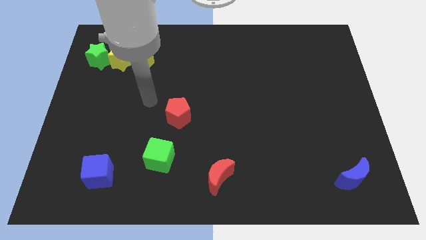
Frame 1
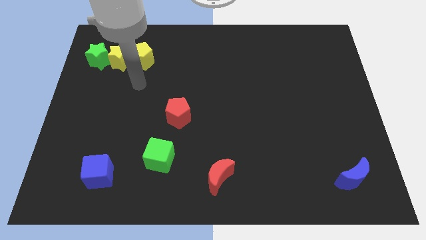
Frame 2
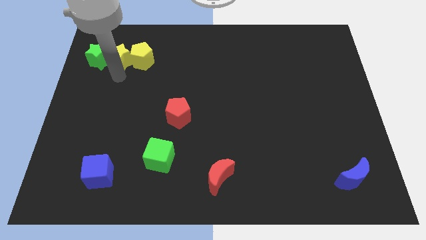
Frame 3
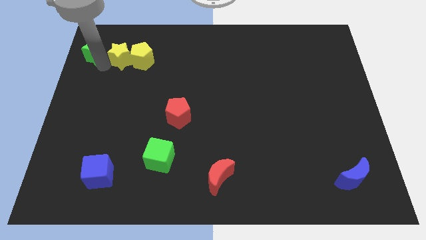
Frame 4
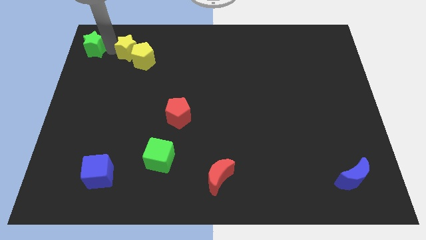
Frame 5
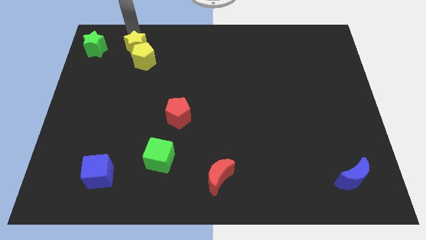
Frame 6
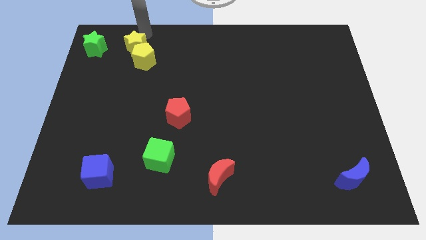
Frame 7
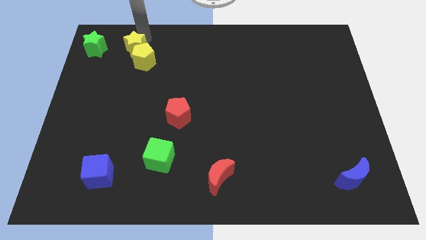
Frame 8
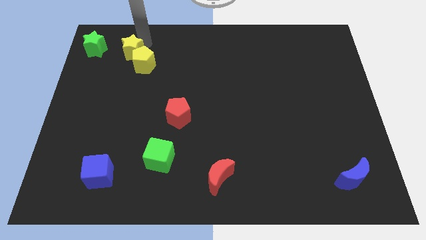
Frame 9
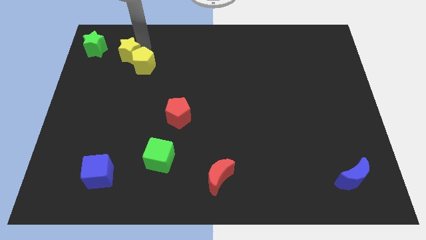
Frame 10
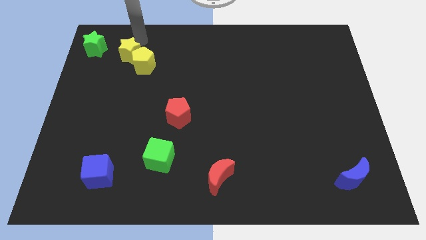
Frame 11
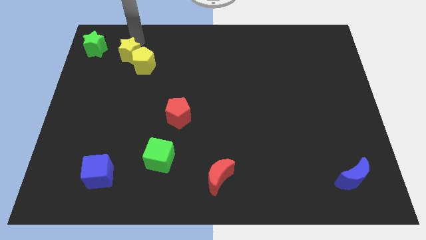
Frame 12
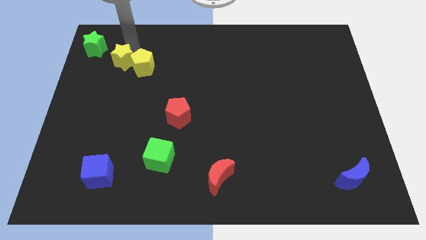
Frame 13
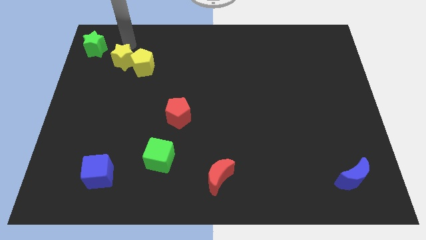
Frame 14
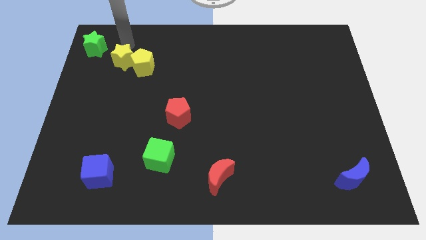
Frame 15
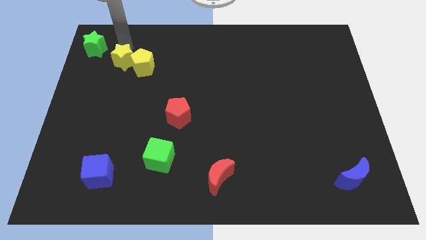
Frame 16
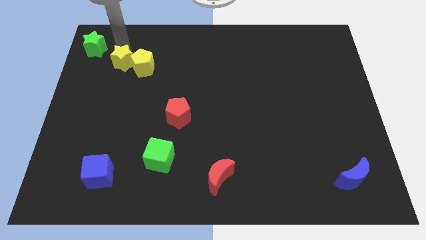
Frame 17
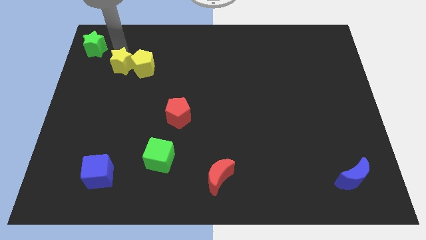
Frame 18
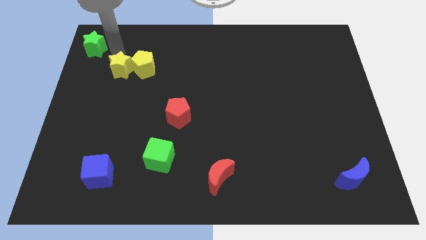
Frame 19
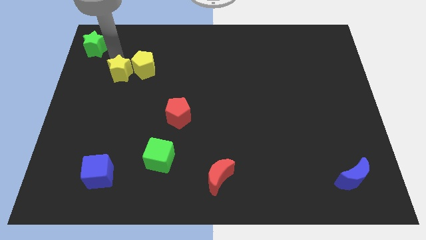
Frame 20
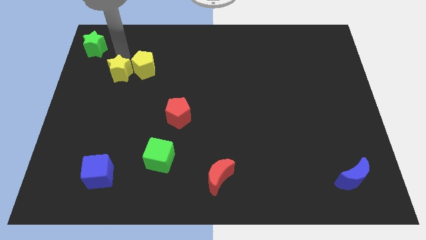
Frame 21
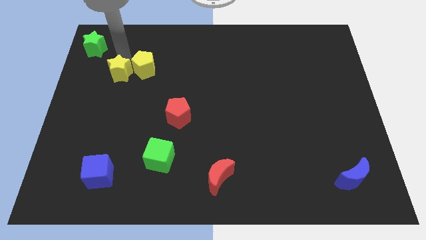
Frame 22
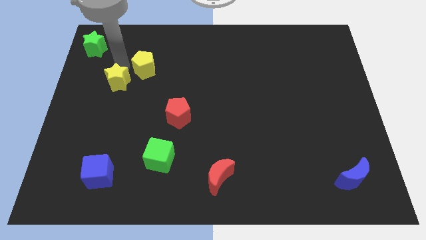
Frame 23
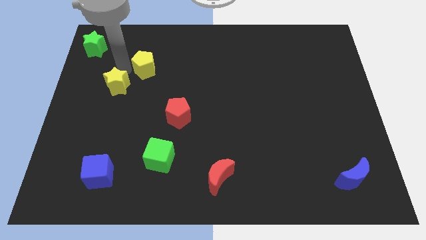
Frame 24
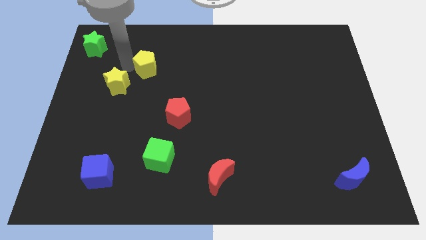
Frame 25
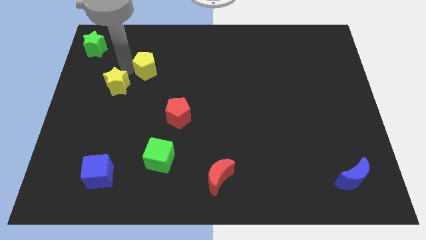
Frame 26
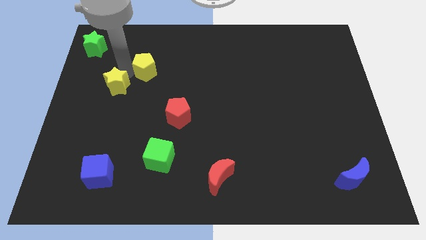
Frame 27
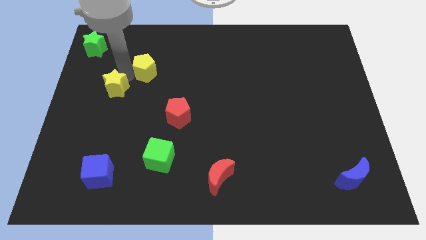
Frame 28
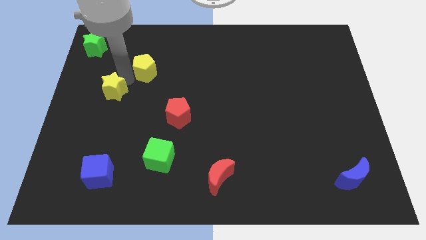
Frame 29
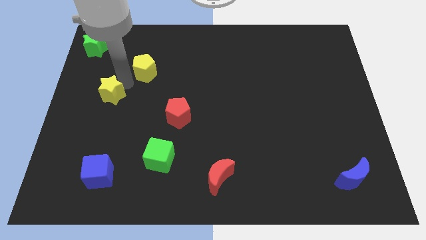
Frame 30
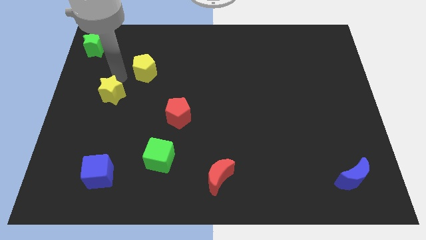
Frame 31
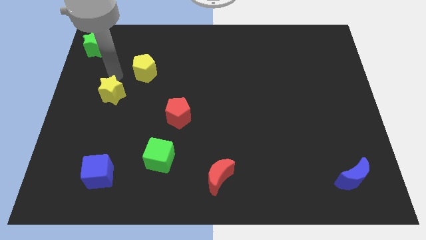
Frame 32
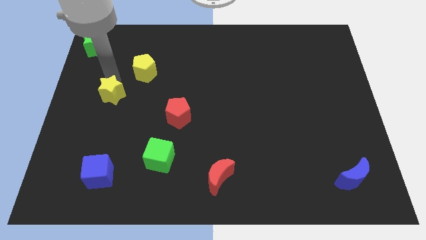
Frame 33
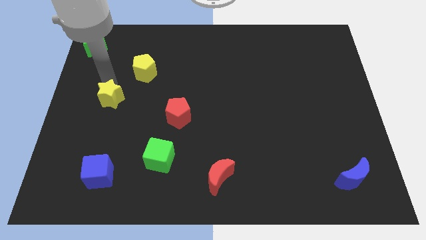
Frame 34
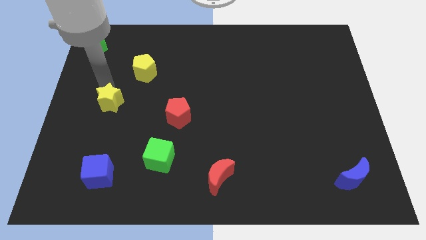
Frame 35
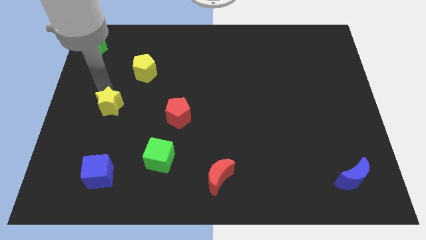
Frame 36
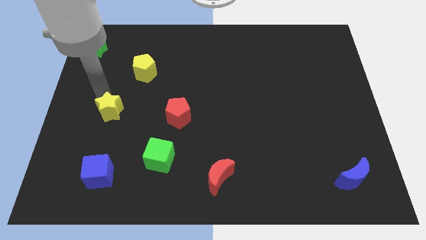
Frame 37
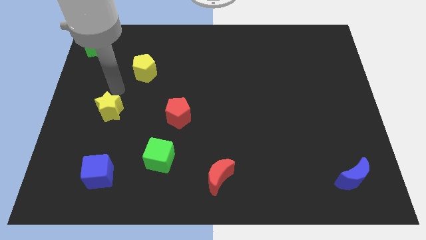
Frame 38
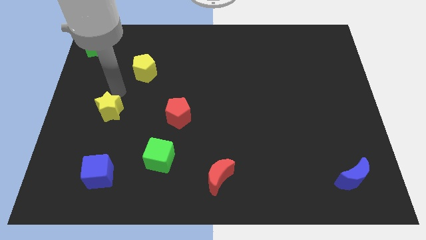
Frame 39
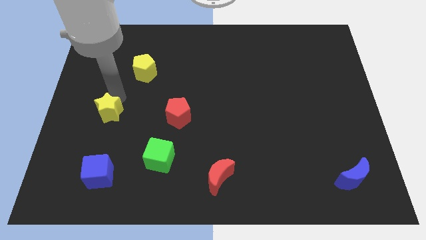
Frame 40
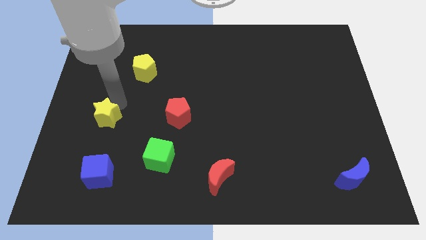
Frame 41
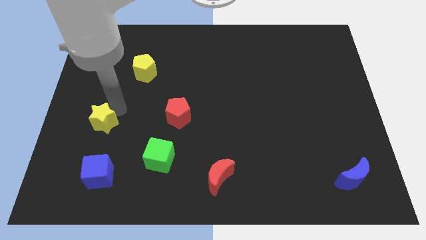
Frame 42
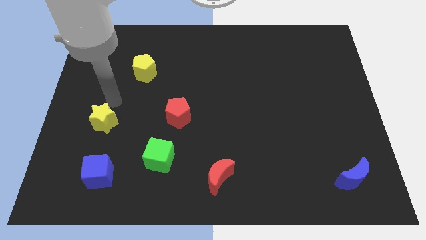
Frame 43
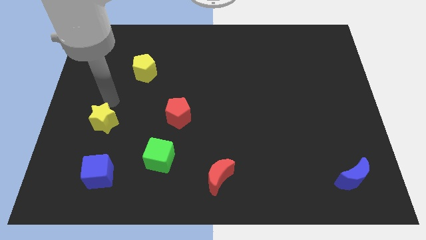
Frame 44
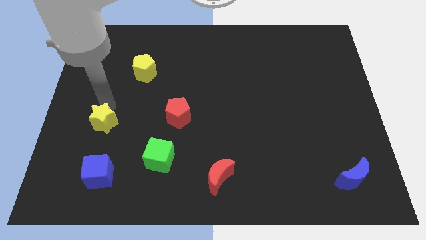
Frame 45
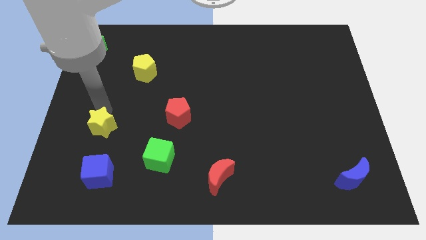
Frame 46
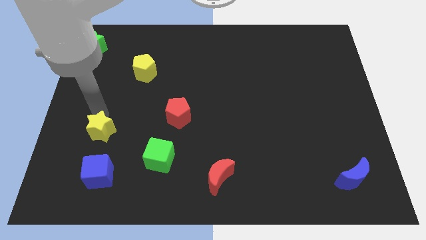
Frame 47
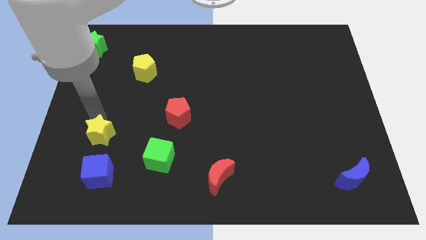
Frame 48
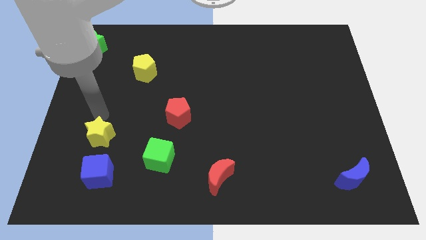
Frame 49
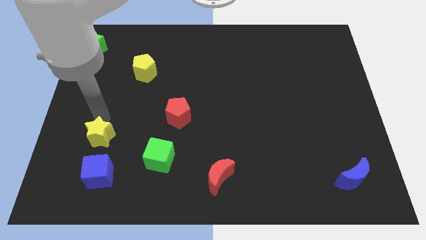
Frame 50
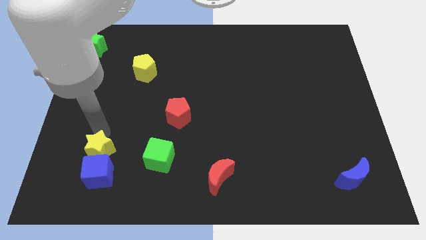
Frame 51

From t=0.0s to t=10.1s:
slide the yellow star close to the blue cube

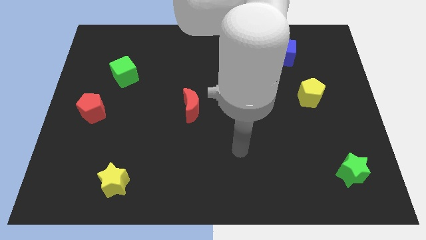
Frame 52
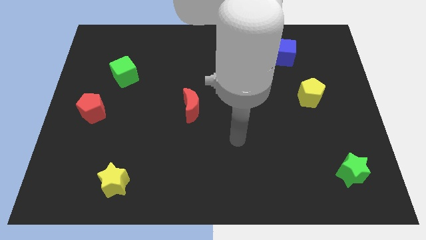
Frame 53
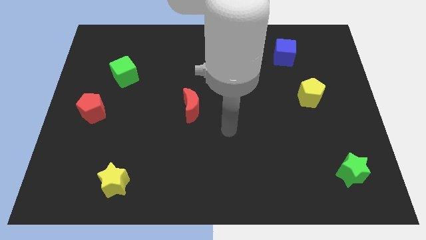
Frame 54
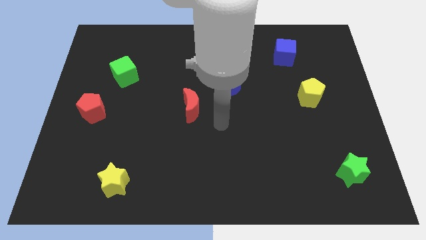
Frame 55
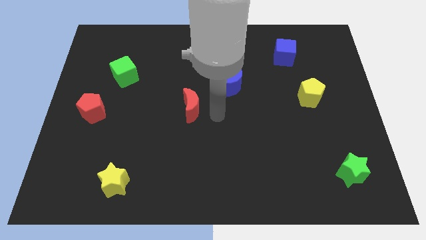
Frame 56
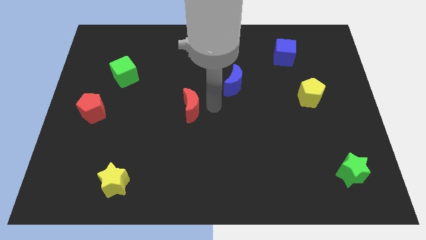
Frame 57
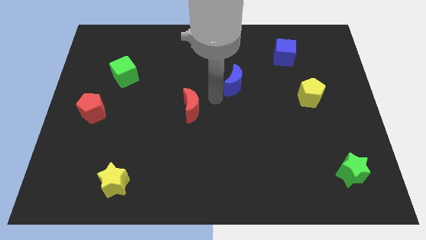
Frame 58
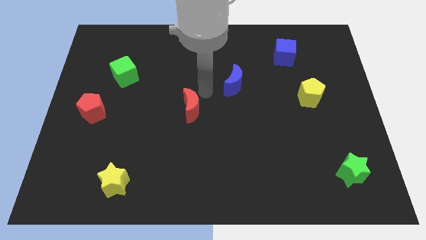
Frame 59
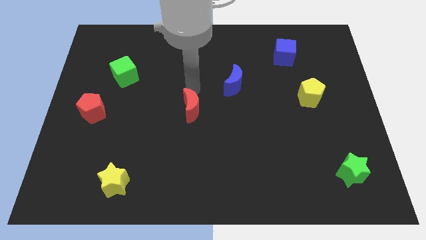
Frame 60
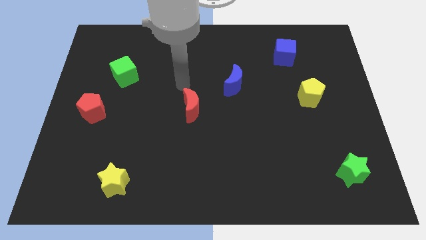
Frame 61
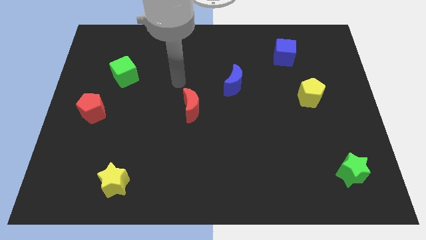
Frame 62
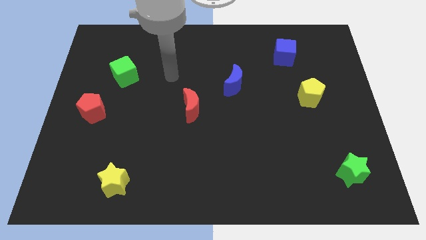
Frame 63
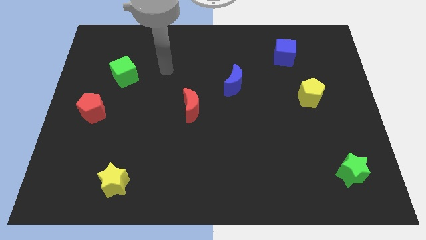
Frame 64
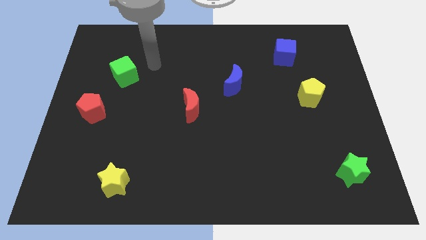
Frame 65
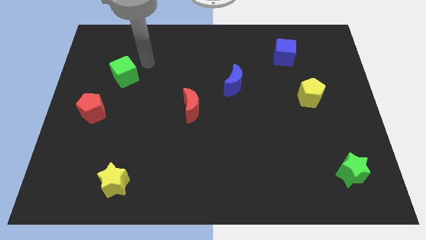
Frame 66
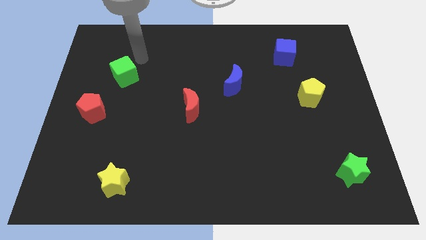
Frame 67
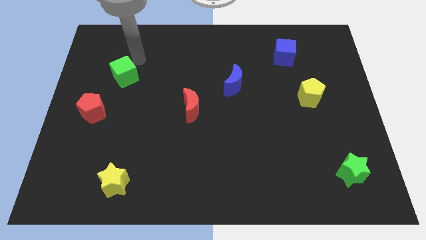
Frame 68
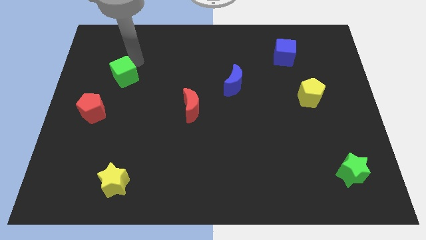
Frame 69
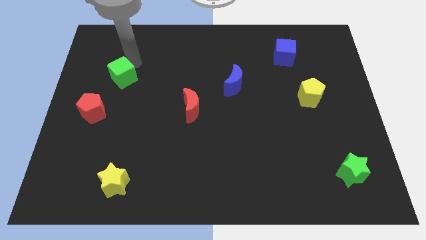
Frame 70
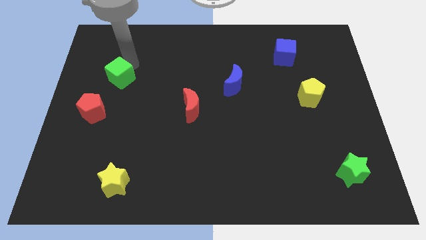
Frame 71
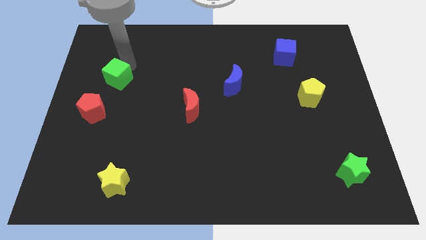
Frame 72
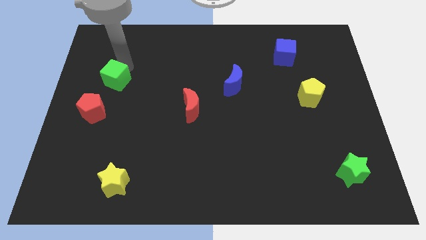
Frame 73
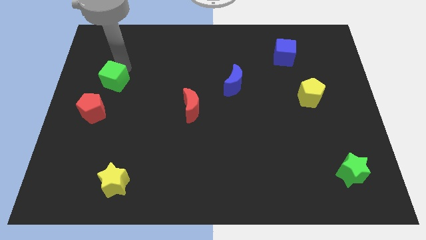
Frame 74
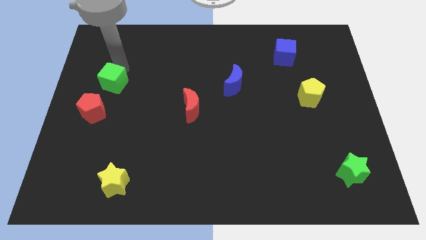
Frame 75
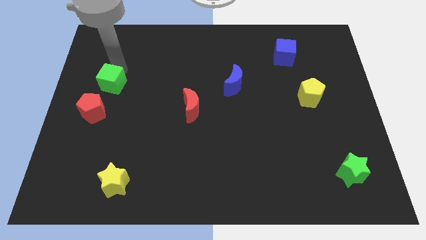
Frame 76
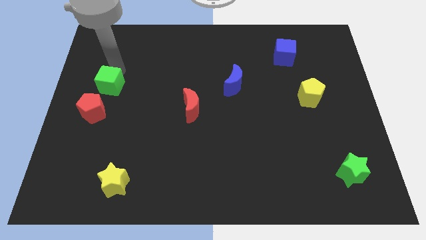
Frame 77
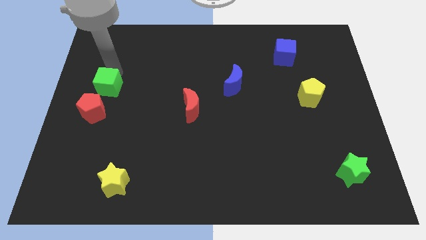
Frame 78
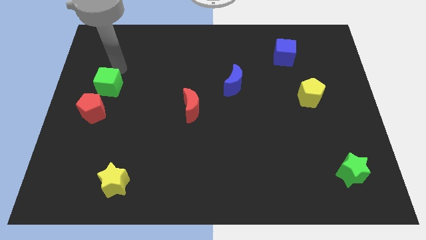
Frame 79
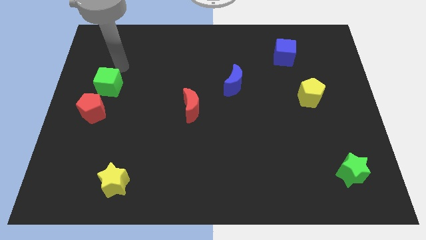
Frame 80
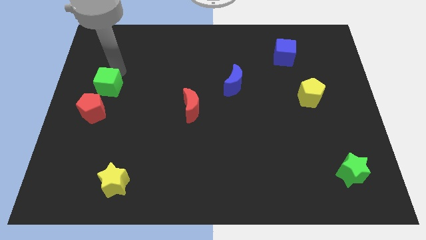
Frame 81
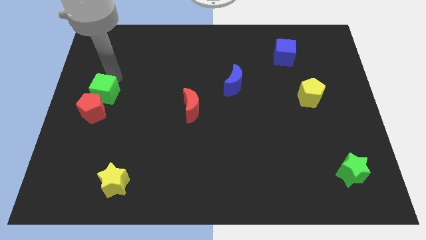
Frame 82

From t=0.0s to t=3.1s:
push the green cube towards the red pentagon
